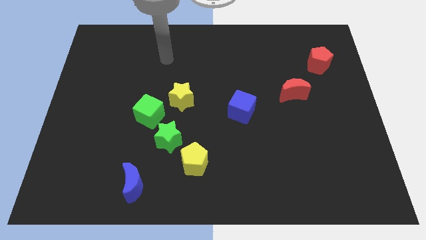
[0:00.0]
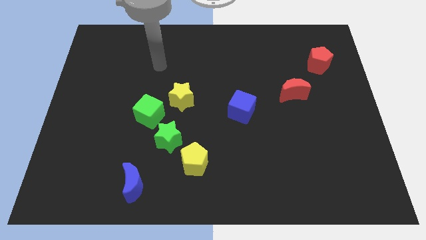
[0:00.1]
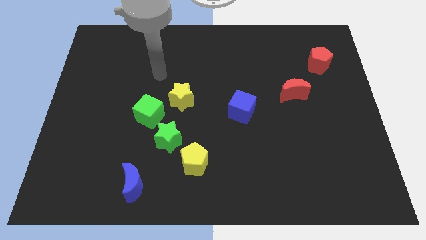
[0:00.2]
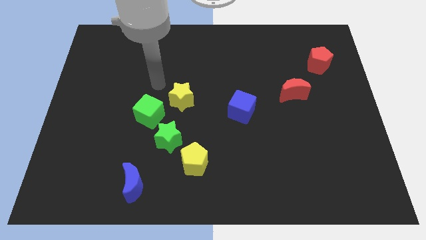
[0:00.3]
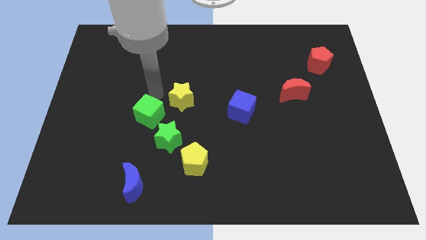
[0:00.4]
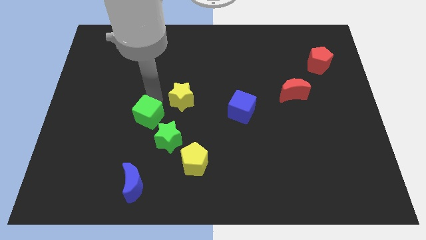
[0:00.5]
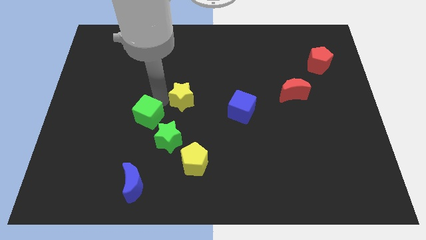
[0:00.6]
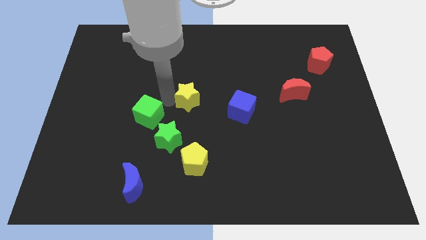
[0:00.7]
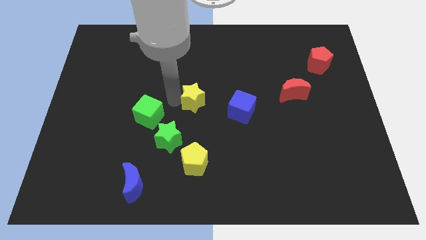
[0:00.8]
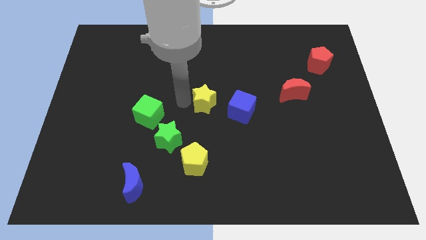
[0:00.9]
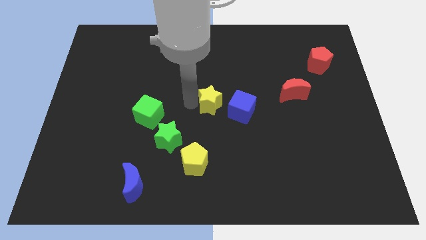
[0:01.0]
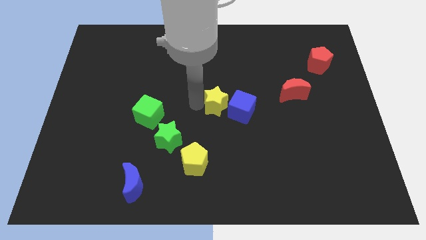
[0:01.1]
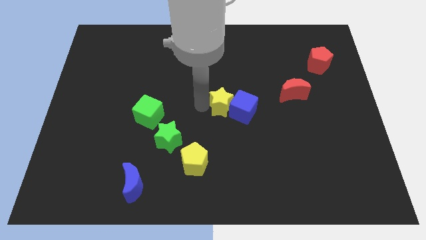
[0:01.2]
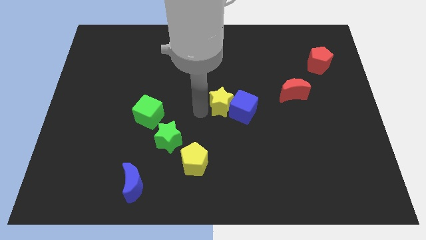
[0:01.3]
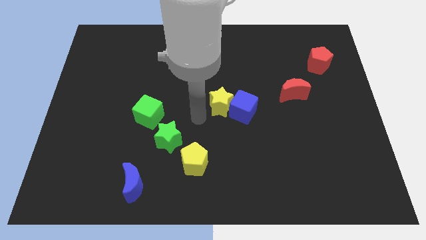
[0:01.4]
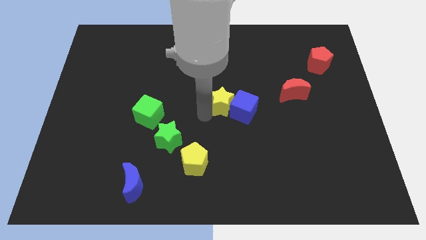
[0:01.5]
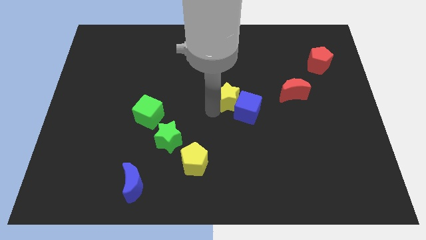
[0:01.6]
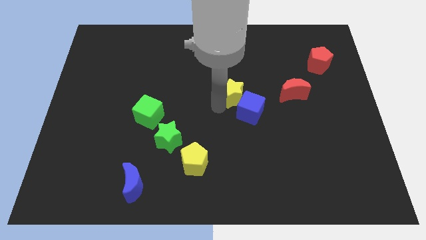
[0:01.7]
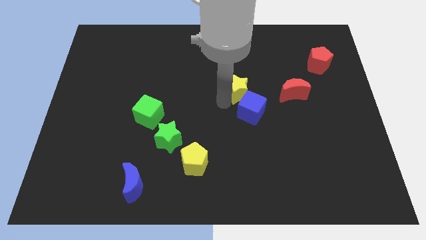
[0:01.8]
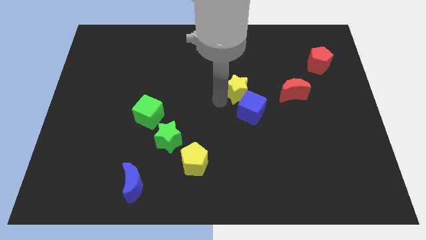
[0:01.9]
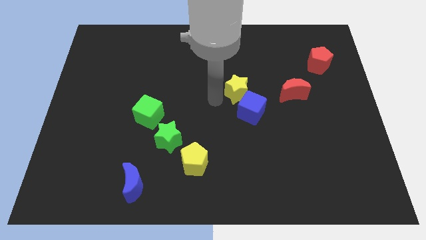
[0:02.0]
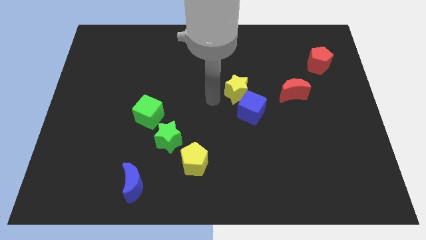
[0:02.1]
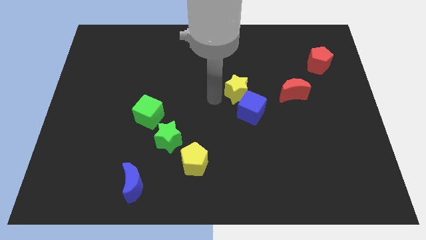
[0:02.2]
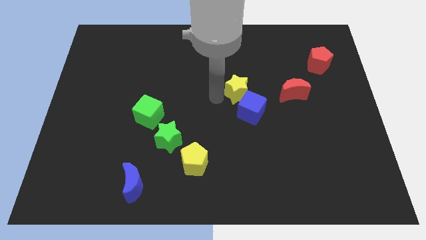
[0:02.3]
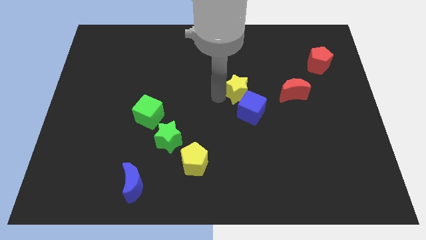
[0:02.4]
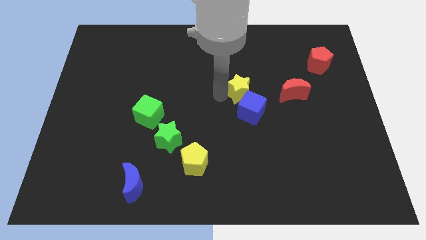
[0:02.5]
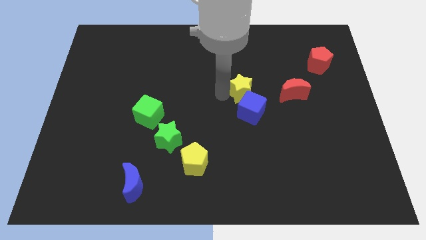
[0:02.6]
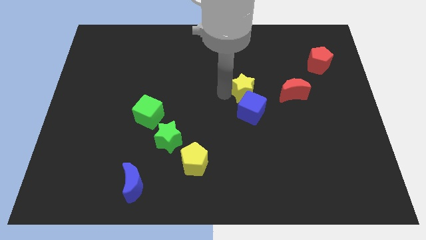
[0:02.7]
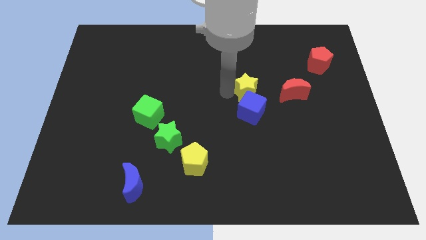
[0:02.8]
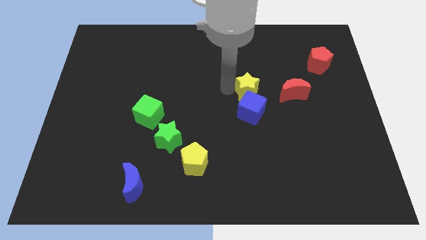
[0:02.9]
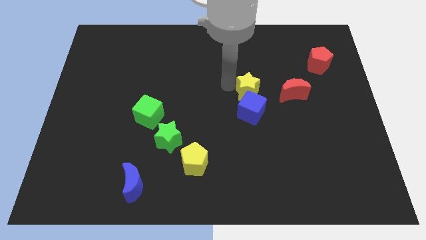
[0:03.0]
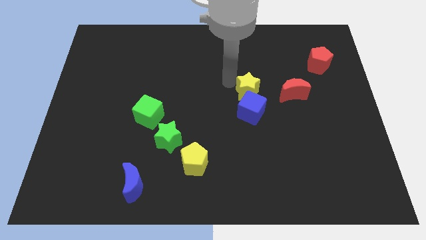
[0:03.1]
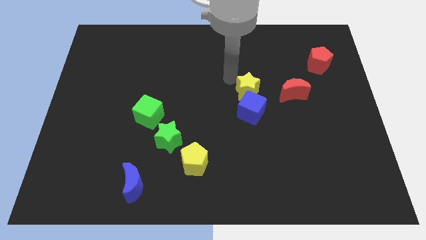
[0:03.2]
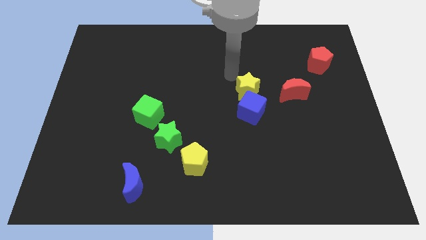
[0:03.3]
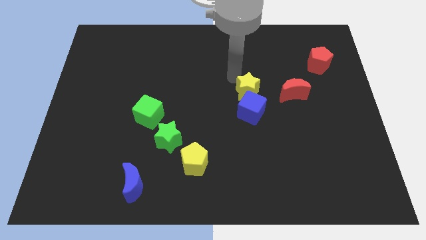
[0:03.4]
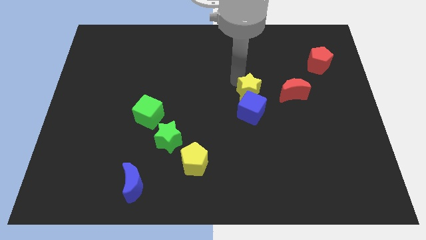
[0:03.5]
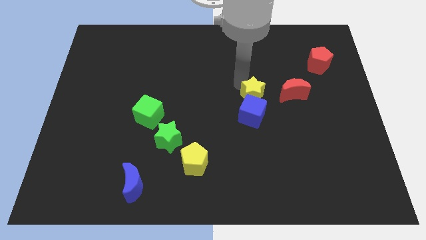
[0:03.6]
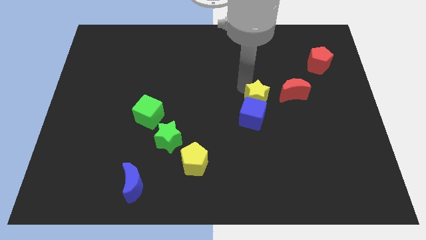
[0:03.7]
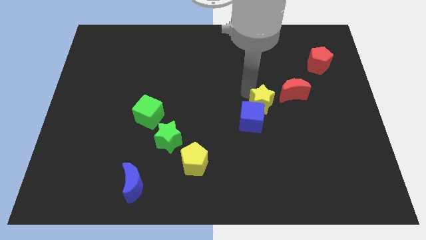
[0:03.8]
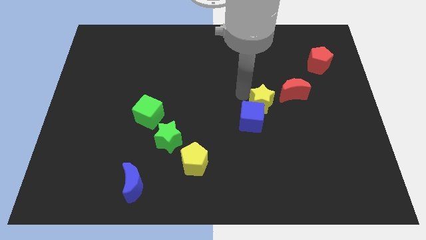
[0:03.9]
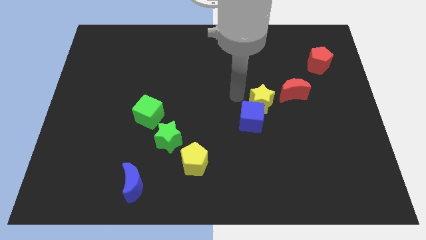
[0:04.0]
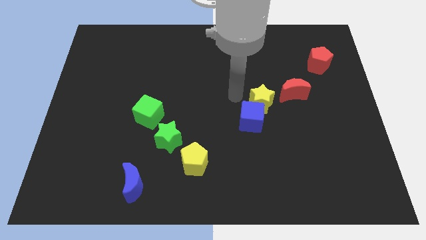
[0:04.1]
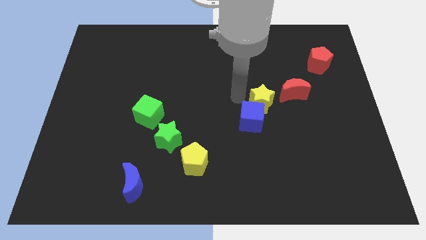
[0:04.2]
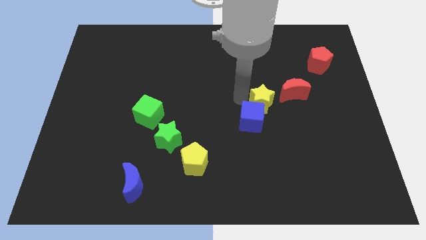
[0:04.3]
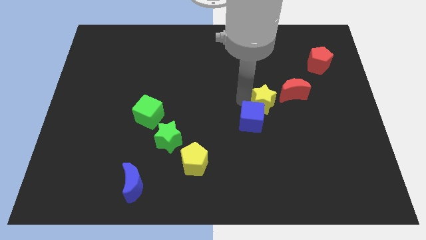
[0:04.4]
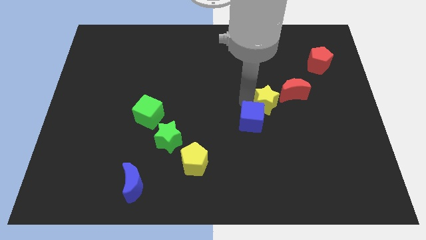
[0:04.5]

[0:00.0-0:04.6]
slide the yellow star to the right

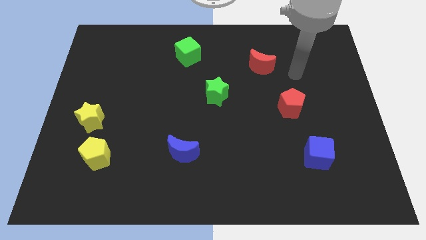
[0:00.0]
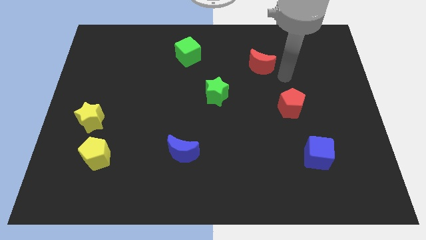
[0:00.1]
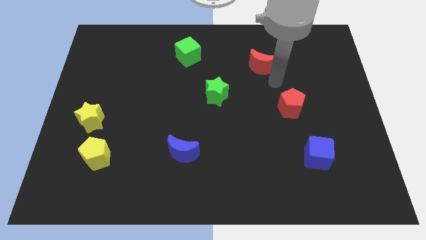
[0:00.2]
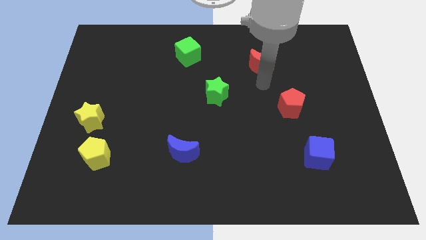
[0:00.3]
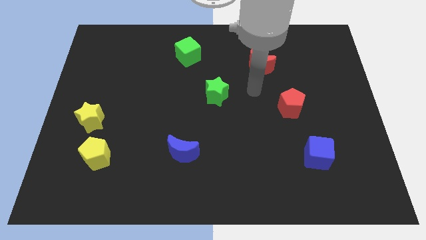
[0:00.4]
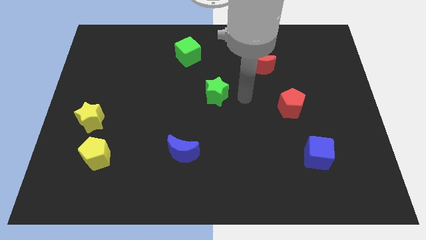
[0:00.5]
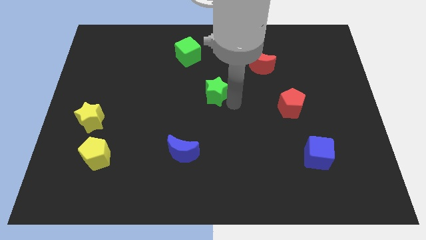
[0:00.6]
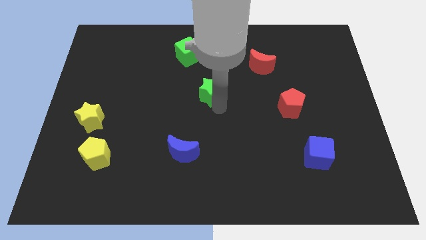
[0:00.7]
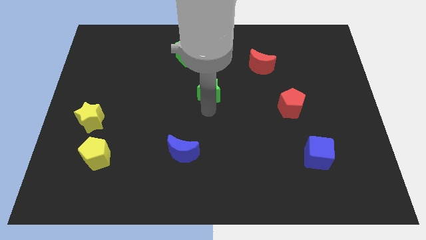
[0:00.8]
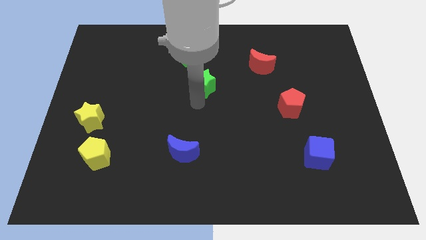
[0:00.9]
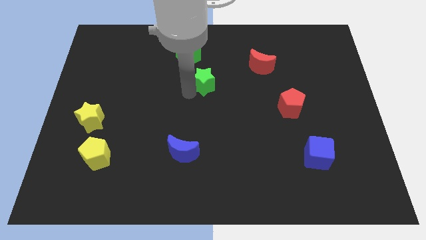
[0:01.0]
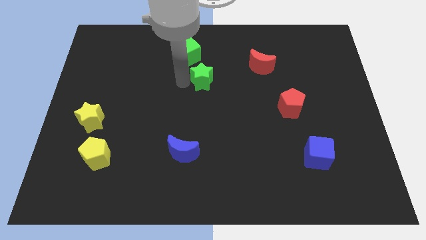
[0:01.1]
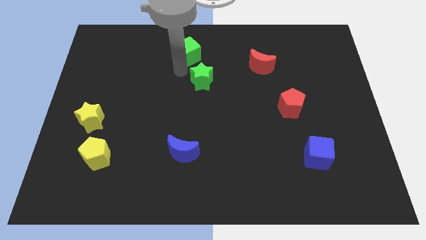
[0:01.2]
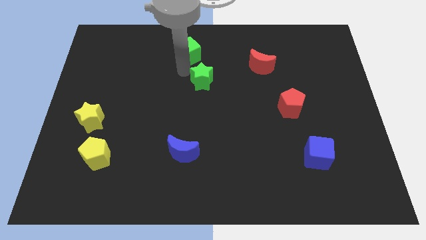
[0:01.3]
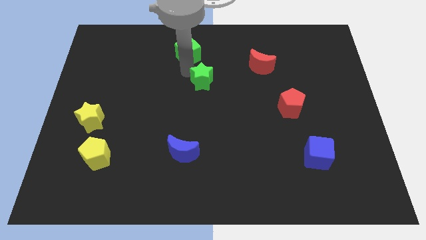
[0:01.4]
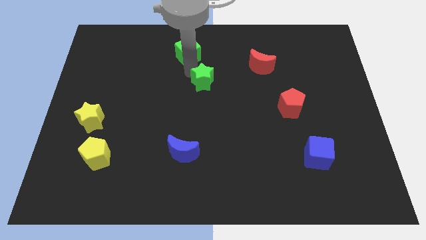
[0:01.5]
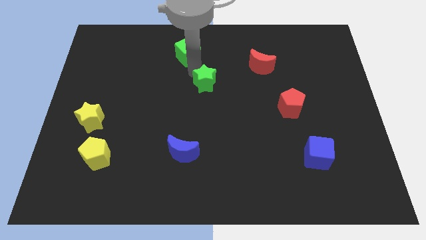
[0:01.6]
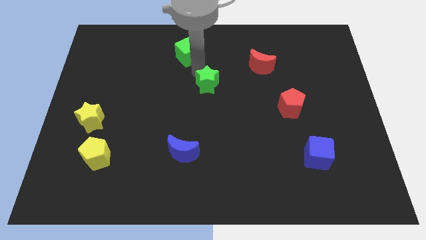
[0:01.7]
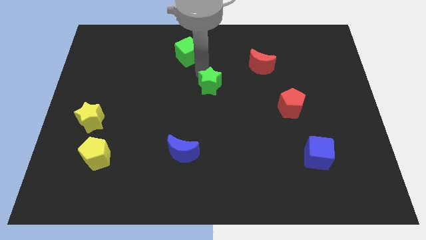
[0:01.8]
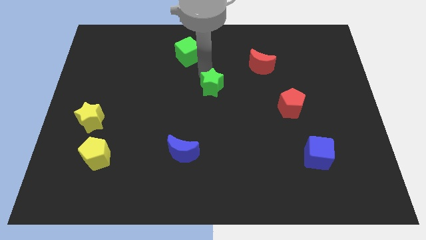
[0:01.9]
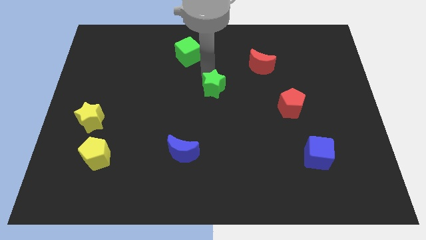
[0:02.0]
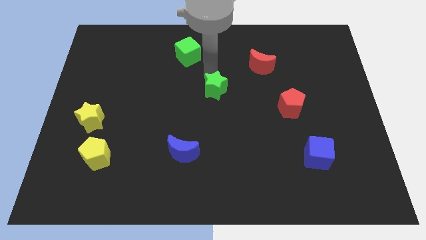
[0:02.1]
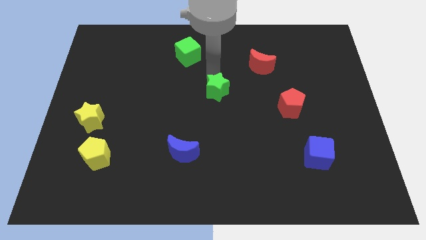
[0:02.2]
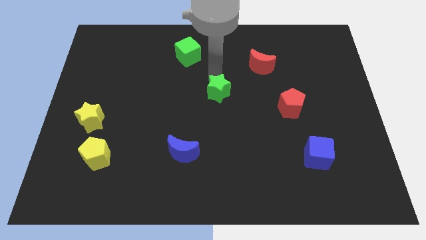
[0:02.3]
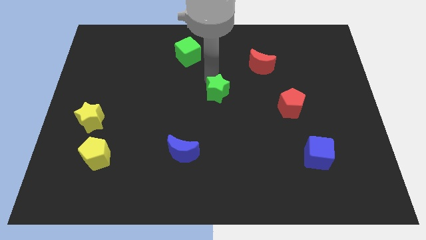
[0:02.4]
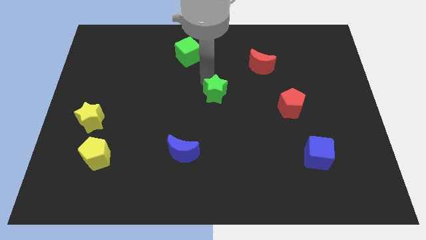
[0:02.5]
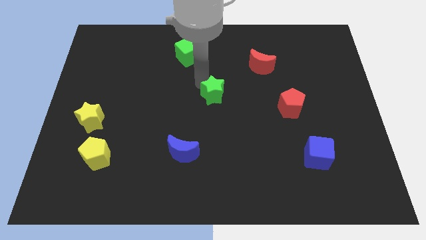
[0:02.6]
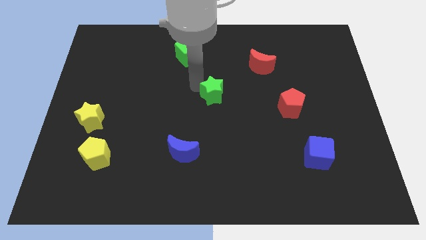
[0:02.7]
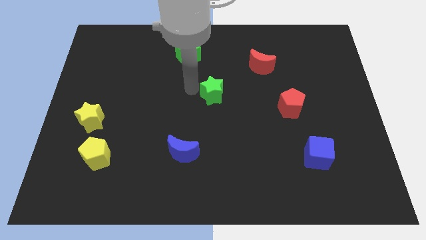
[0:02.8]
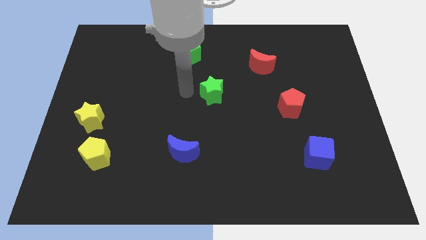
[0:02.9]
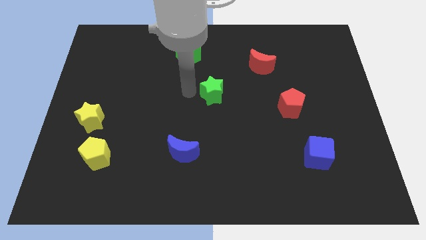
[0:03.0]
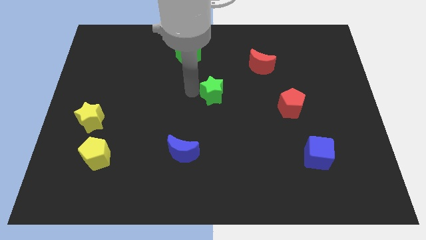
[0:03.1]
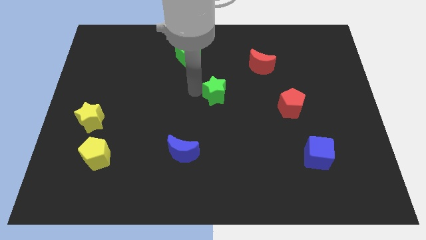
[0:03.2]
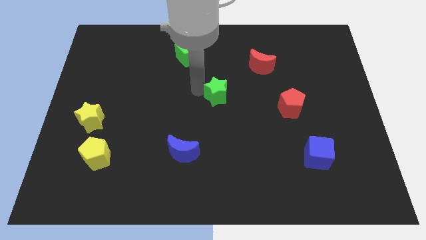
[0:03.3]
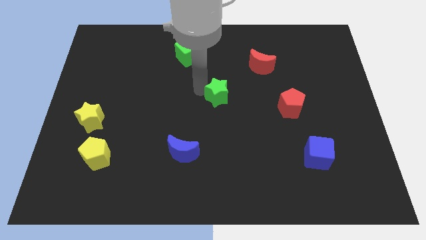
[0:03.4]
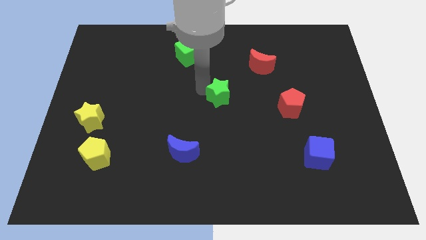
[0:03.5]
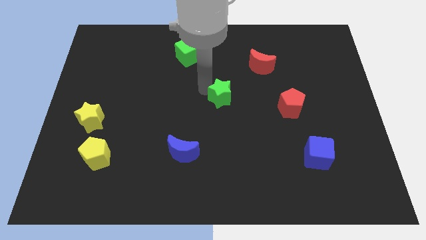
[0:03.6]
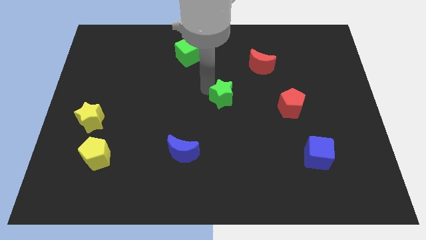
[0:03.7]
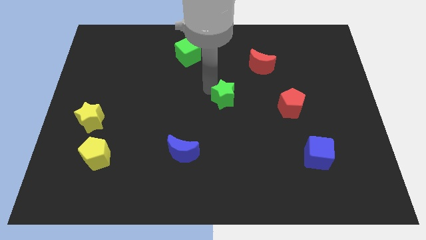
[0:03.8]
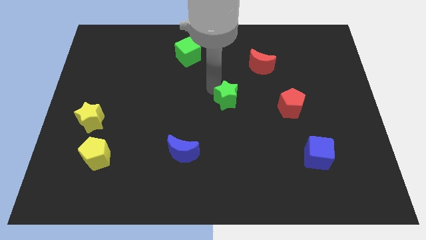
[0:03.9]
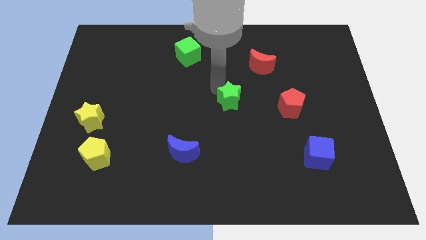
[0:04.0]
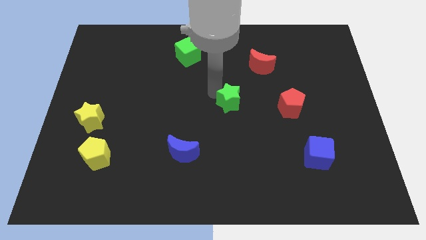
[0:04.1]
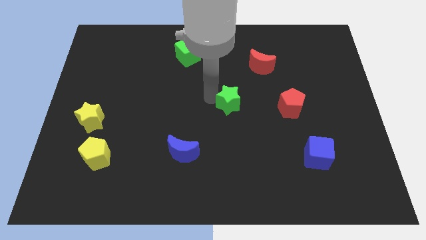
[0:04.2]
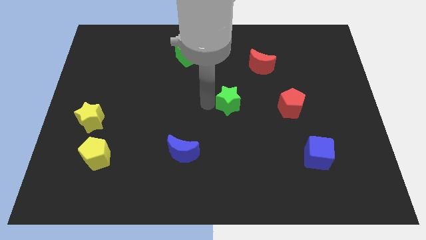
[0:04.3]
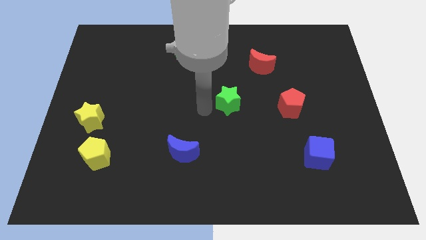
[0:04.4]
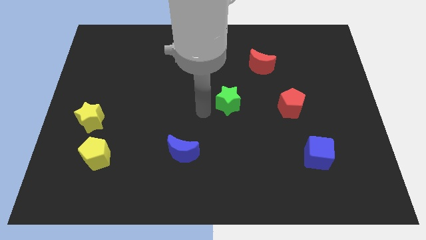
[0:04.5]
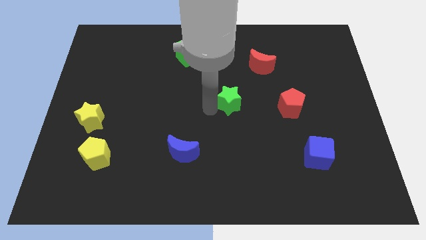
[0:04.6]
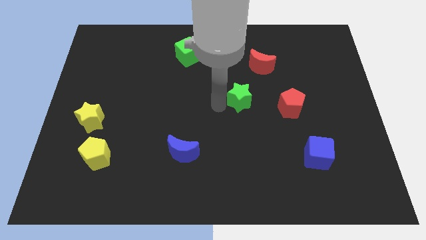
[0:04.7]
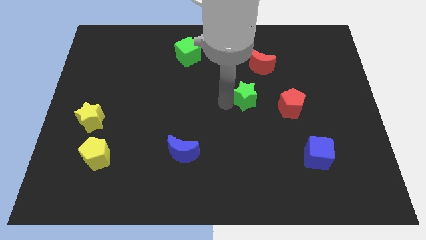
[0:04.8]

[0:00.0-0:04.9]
slide the green star to the right somewhat
